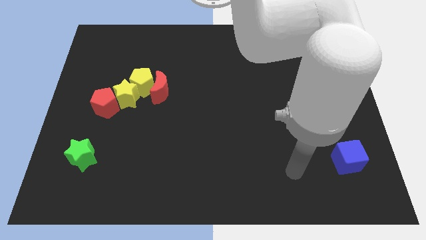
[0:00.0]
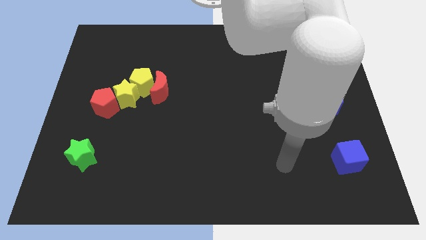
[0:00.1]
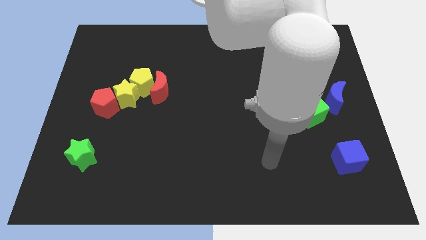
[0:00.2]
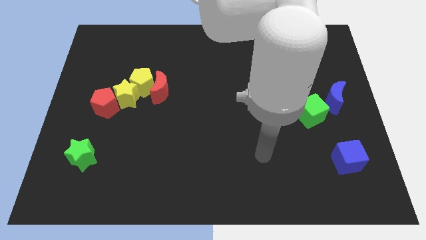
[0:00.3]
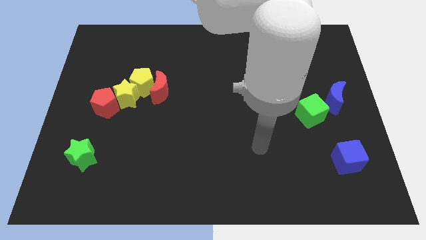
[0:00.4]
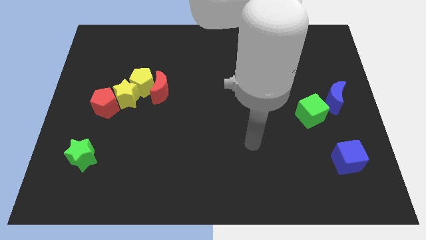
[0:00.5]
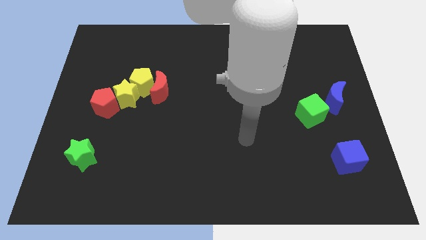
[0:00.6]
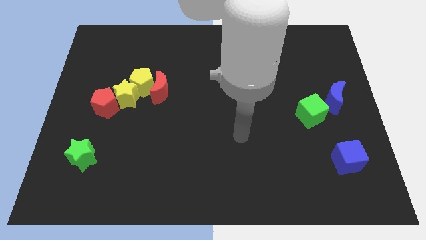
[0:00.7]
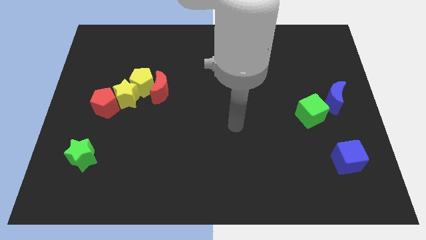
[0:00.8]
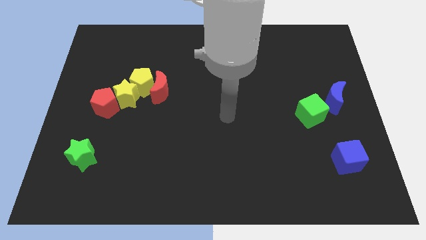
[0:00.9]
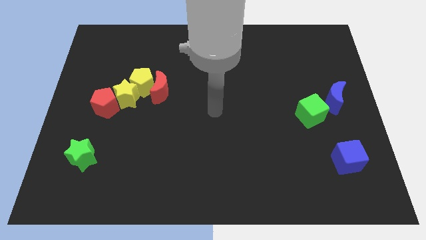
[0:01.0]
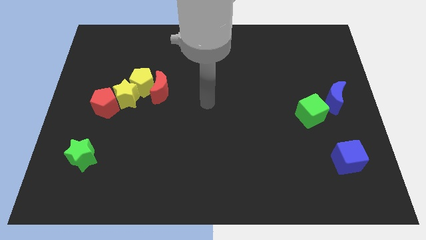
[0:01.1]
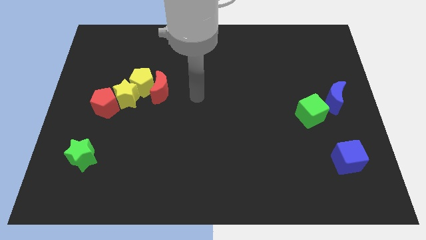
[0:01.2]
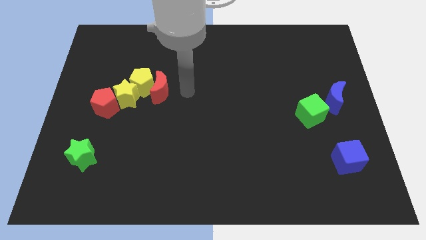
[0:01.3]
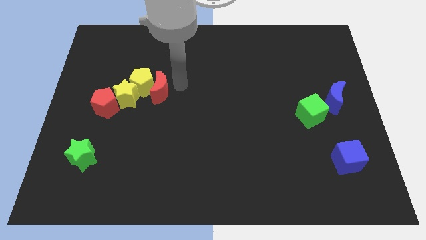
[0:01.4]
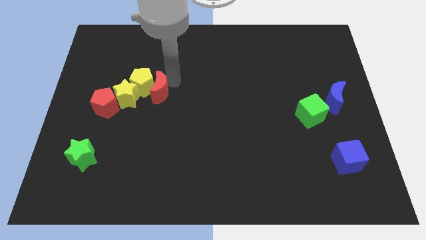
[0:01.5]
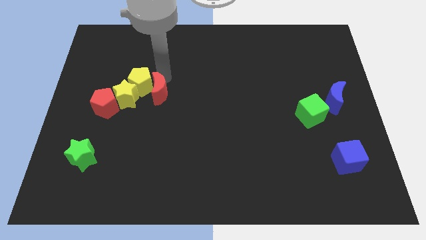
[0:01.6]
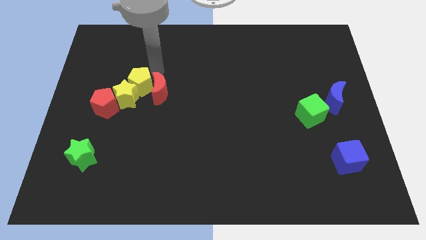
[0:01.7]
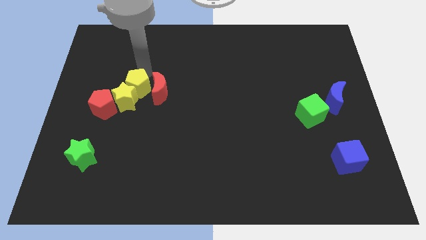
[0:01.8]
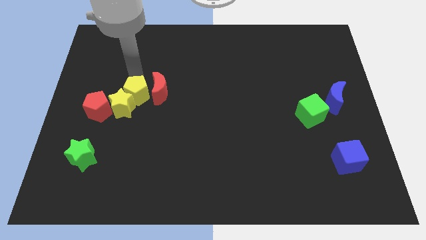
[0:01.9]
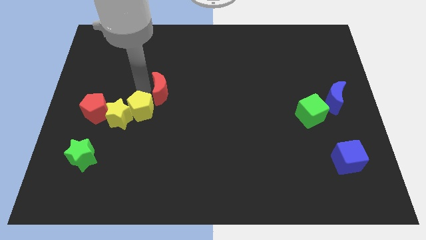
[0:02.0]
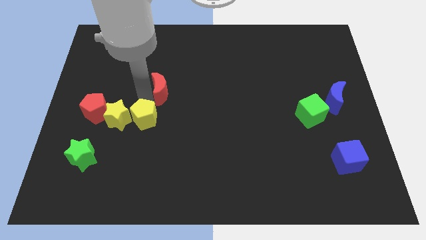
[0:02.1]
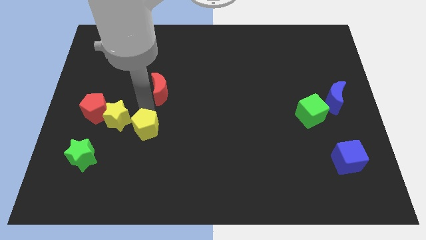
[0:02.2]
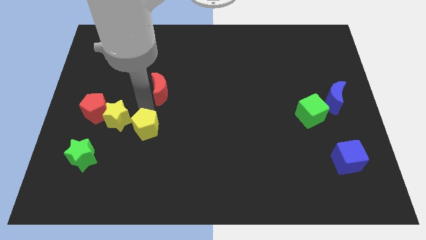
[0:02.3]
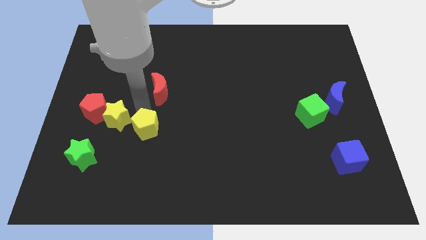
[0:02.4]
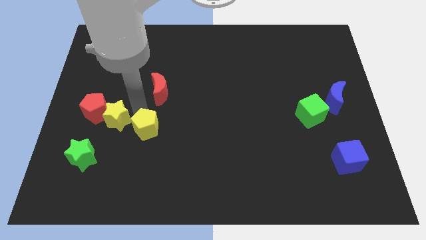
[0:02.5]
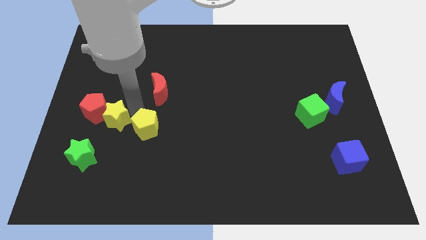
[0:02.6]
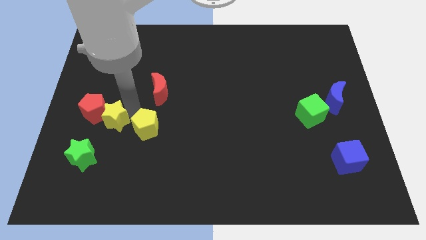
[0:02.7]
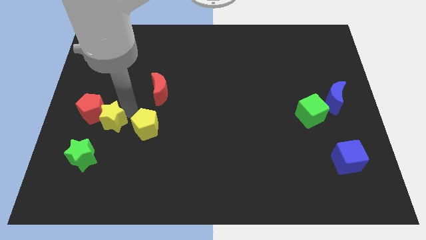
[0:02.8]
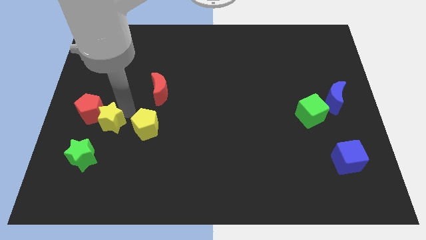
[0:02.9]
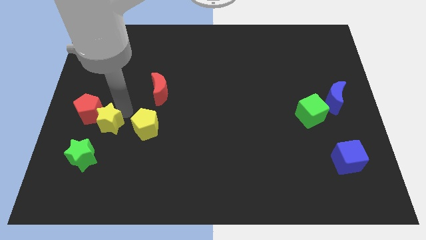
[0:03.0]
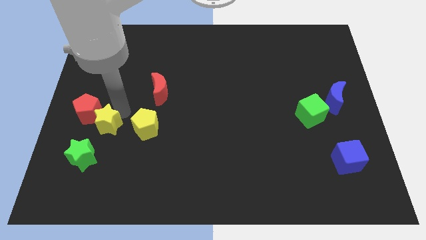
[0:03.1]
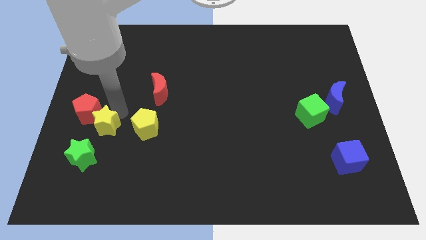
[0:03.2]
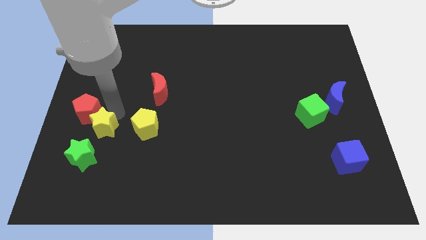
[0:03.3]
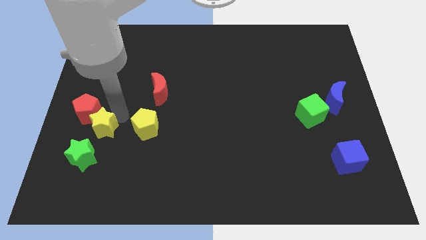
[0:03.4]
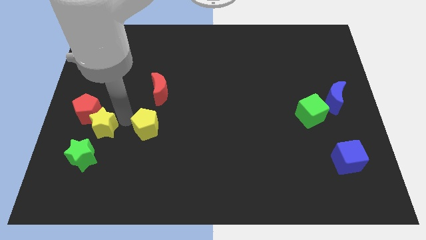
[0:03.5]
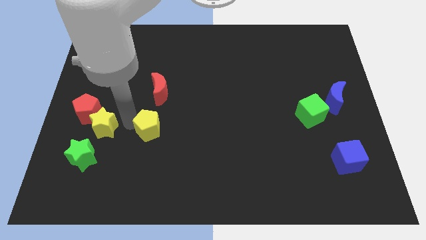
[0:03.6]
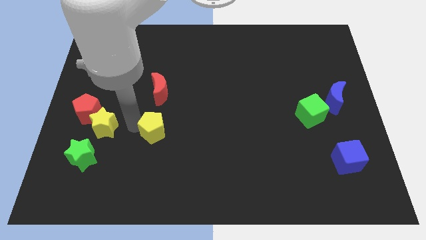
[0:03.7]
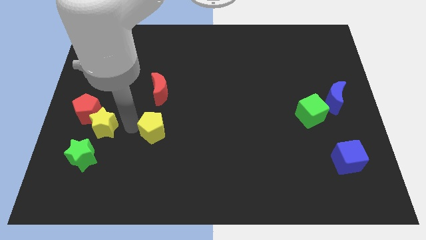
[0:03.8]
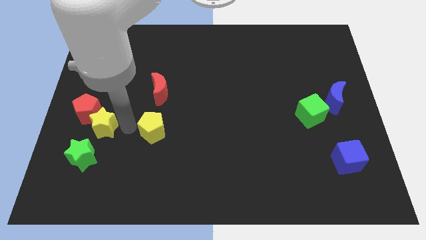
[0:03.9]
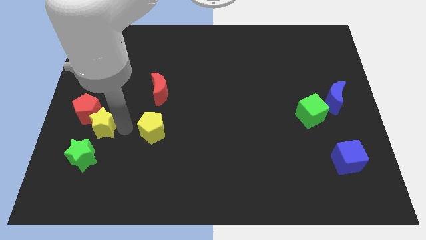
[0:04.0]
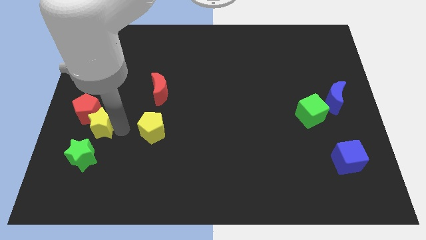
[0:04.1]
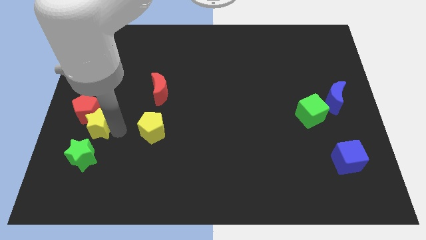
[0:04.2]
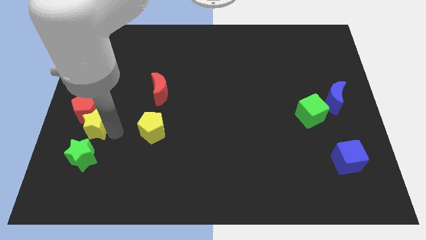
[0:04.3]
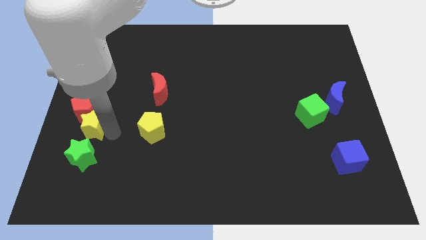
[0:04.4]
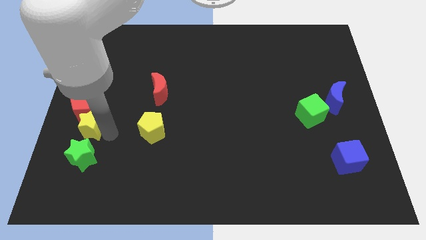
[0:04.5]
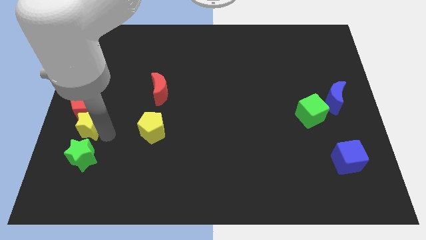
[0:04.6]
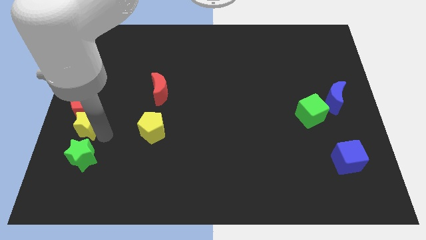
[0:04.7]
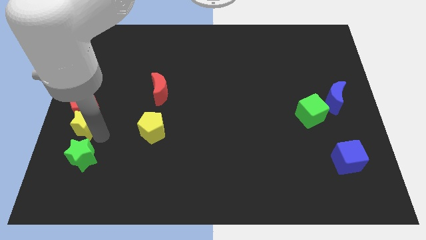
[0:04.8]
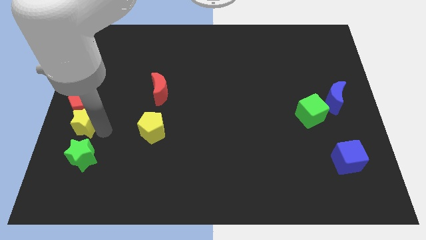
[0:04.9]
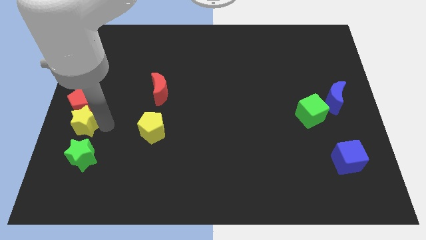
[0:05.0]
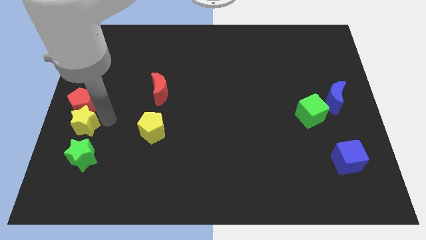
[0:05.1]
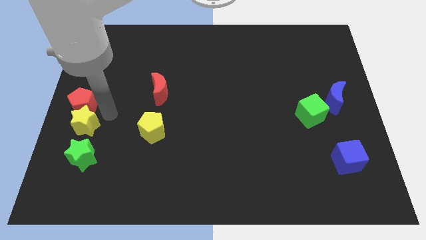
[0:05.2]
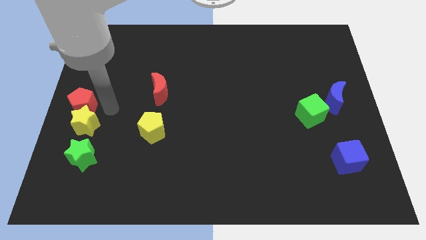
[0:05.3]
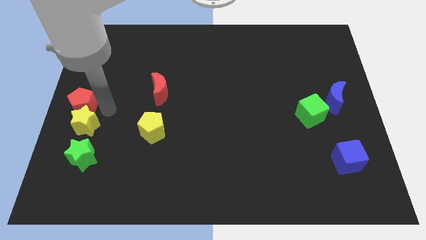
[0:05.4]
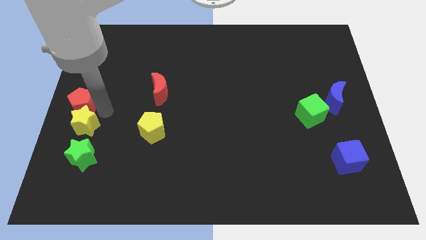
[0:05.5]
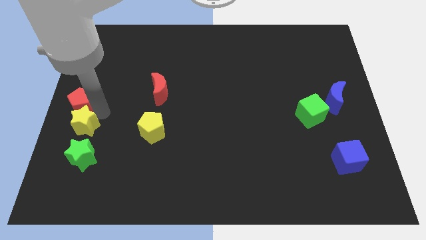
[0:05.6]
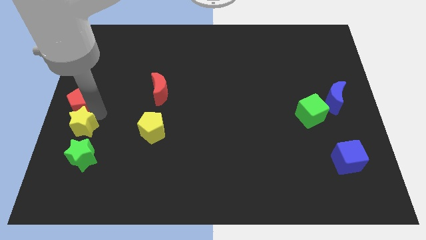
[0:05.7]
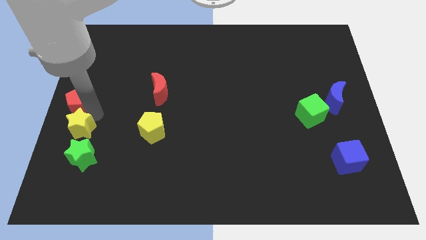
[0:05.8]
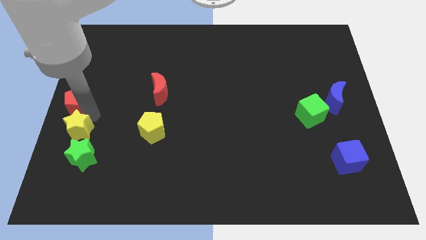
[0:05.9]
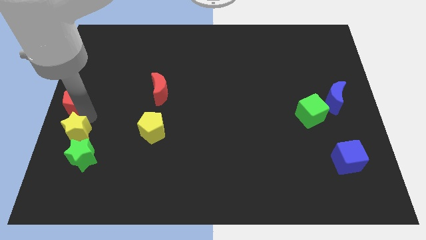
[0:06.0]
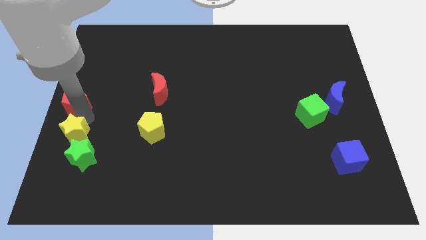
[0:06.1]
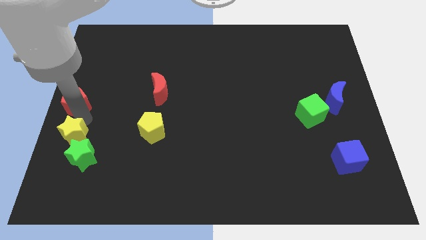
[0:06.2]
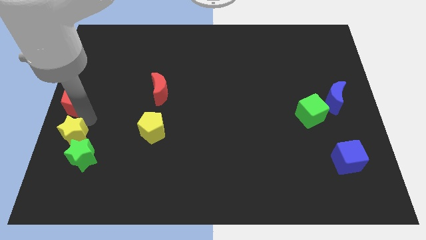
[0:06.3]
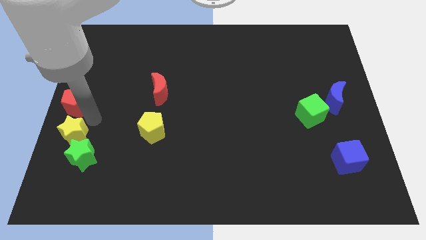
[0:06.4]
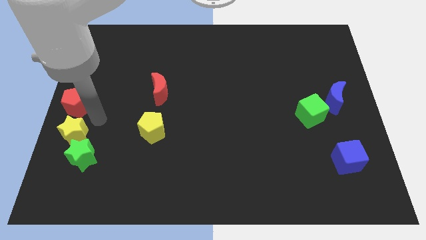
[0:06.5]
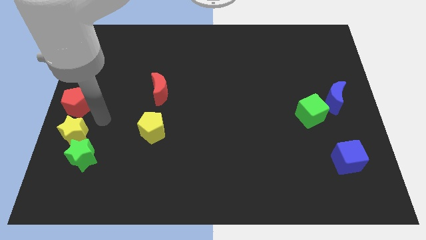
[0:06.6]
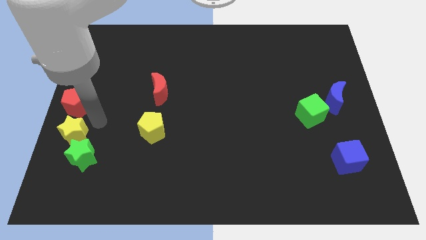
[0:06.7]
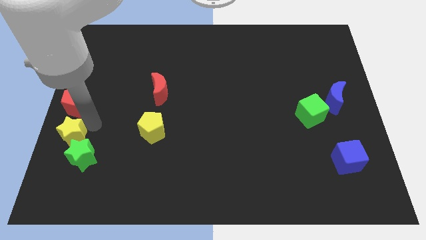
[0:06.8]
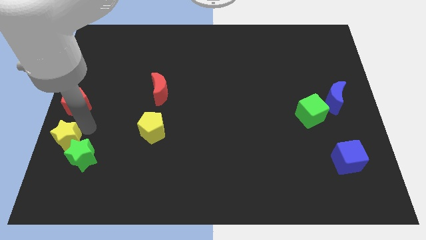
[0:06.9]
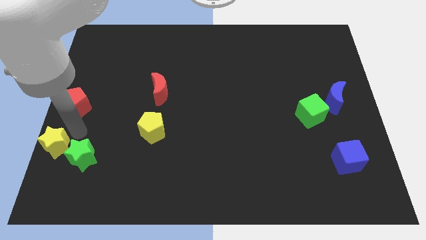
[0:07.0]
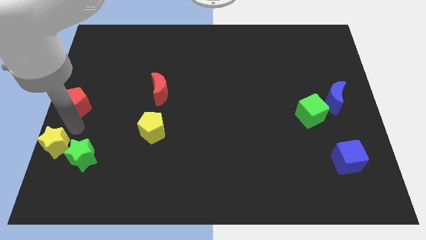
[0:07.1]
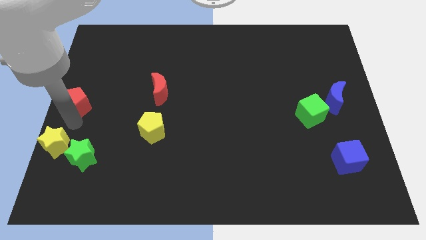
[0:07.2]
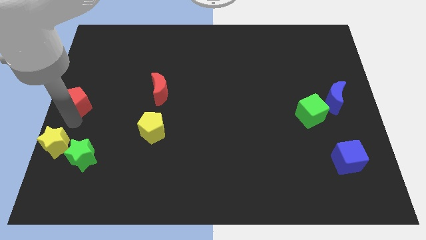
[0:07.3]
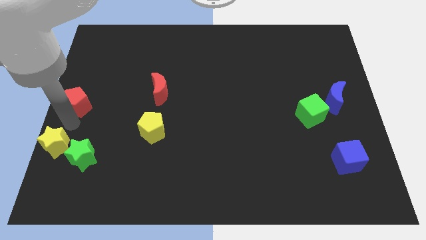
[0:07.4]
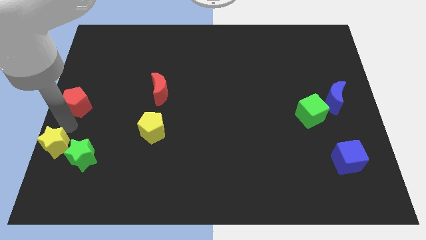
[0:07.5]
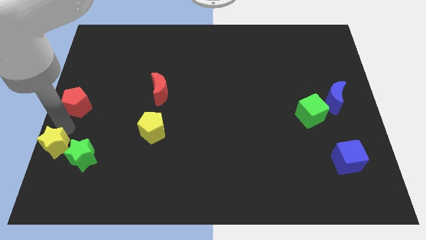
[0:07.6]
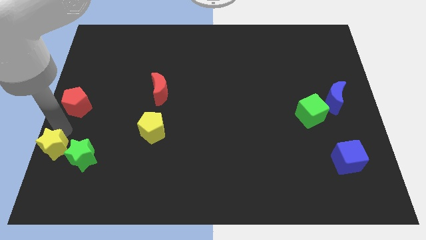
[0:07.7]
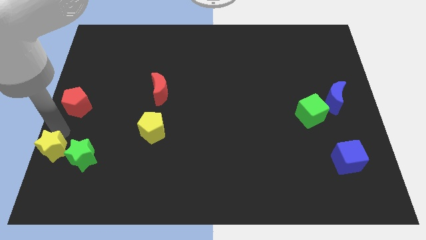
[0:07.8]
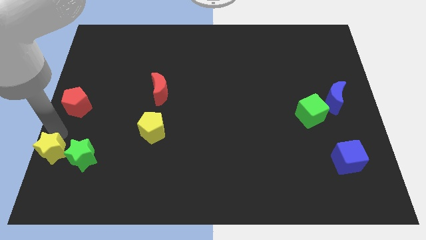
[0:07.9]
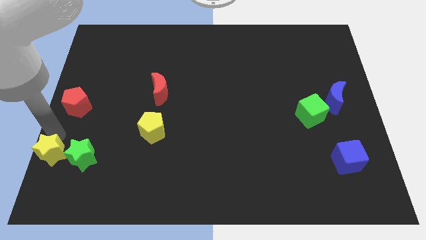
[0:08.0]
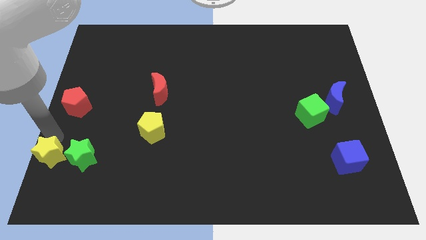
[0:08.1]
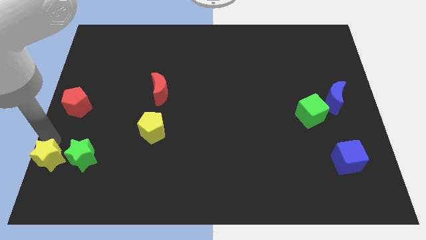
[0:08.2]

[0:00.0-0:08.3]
move the yellow star to the bottom left
